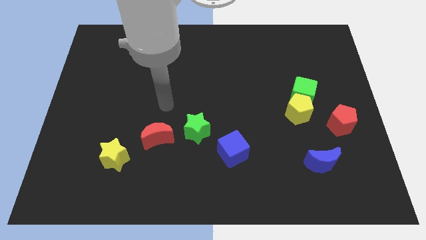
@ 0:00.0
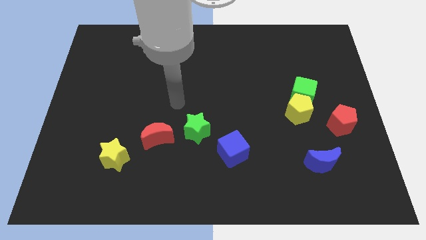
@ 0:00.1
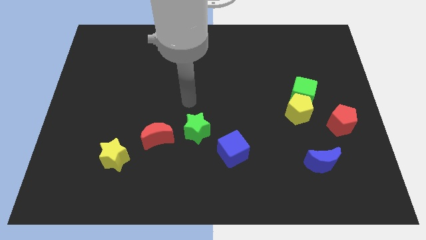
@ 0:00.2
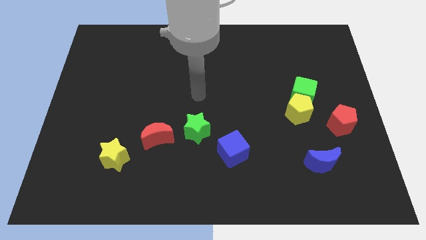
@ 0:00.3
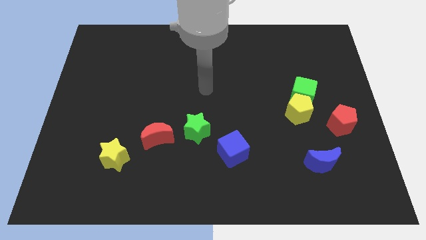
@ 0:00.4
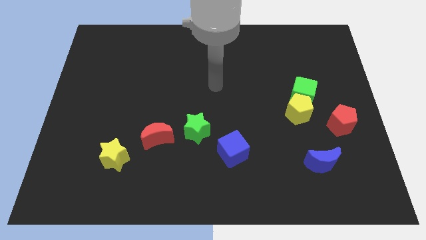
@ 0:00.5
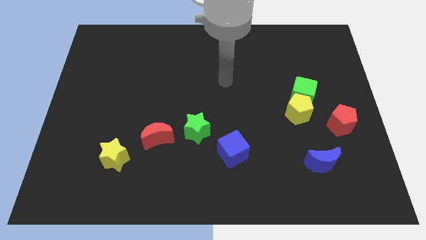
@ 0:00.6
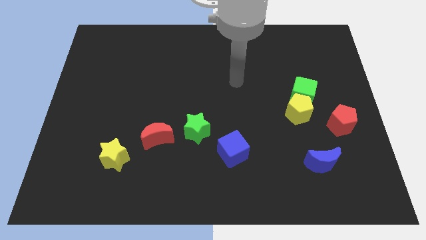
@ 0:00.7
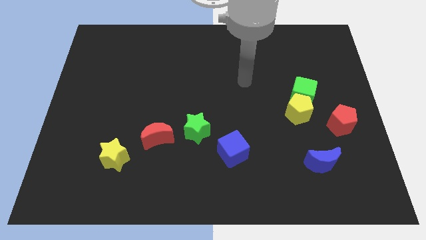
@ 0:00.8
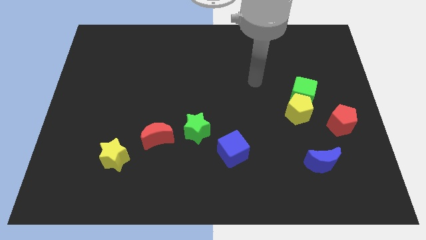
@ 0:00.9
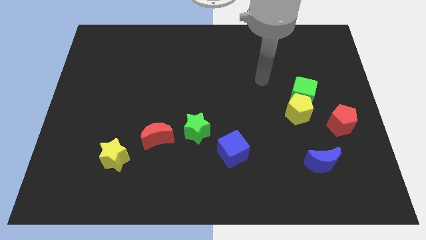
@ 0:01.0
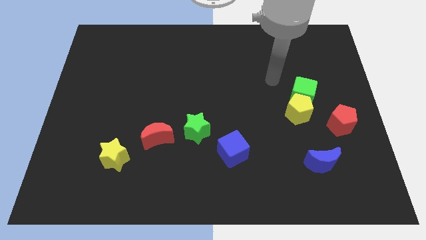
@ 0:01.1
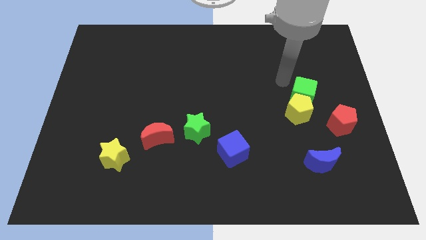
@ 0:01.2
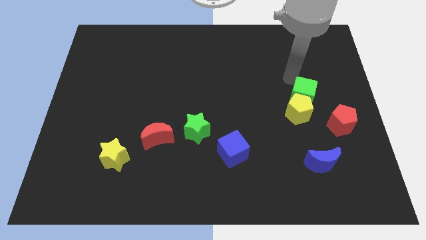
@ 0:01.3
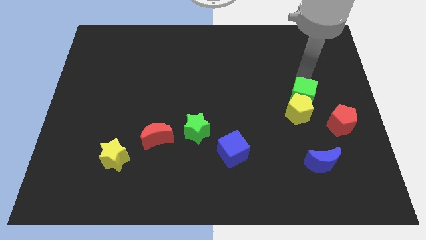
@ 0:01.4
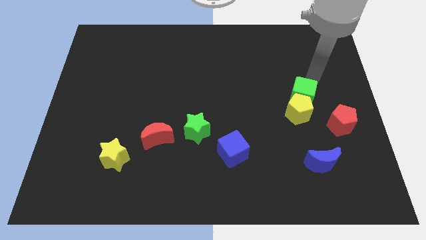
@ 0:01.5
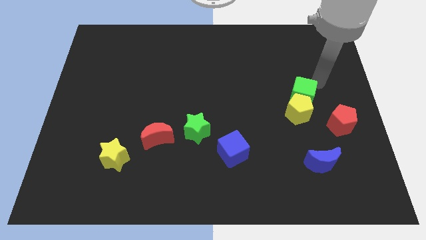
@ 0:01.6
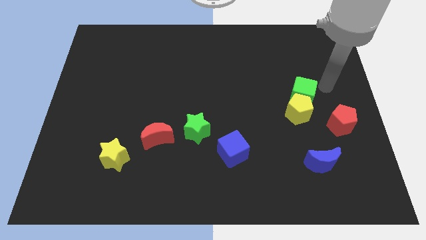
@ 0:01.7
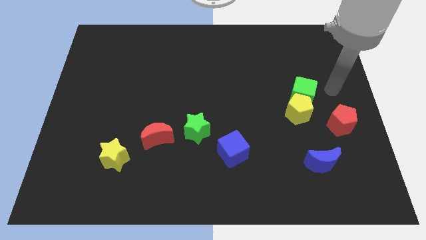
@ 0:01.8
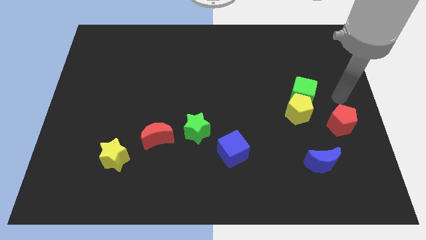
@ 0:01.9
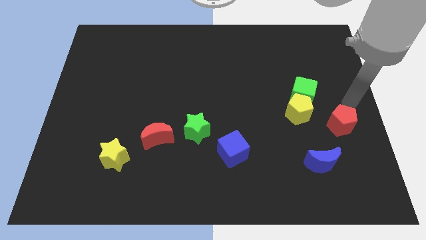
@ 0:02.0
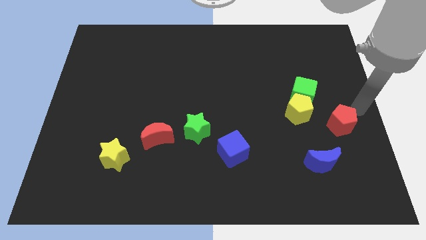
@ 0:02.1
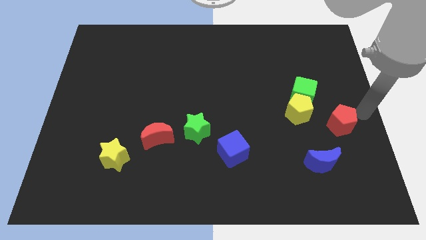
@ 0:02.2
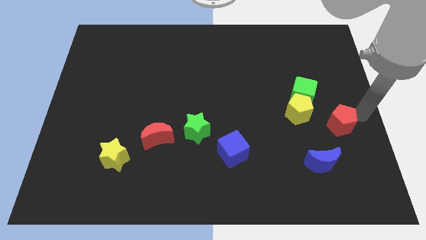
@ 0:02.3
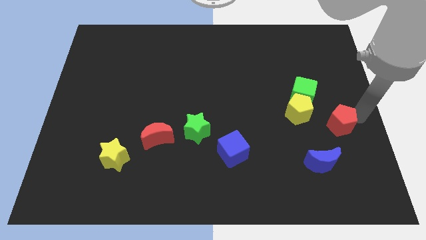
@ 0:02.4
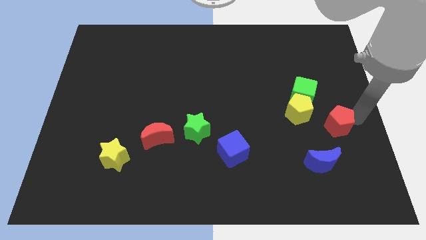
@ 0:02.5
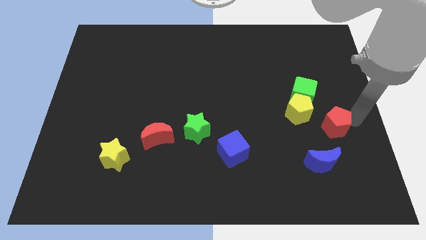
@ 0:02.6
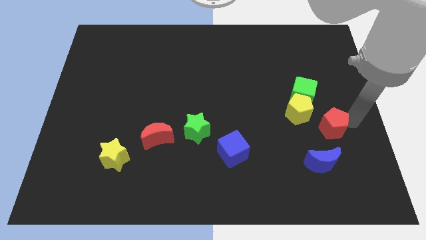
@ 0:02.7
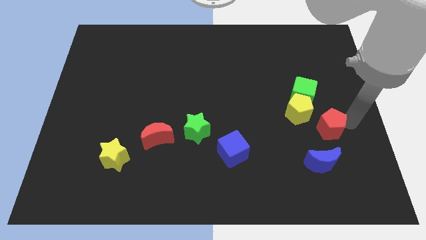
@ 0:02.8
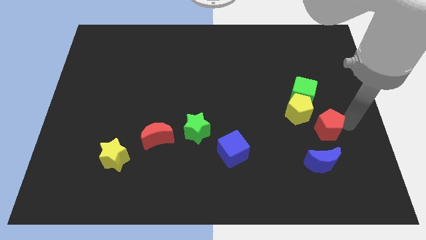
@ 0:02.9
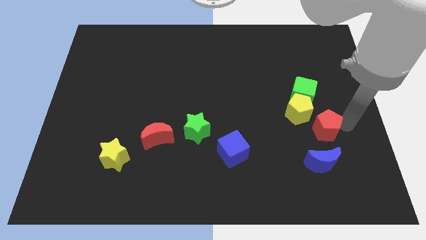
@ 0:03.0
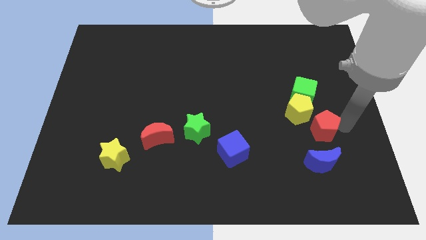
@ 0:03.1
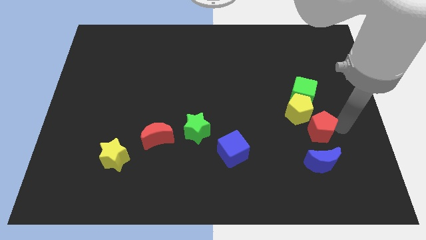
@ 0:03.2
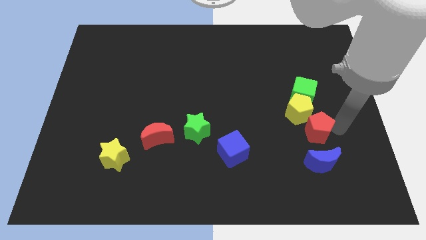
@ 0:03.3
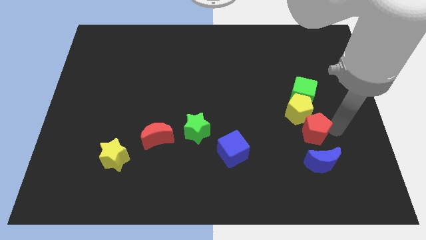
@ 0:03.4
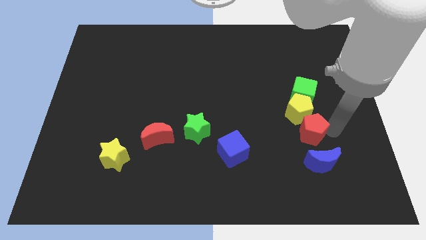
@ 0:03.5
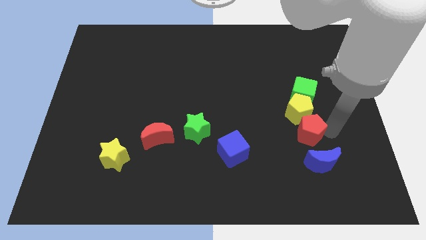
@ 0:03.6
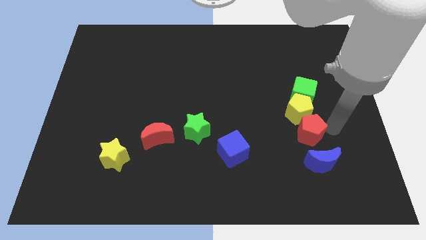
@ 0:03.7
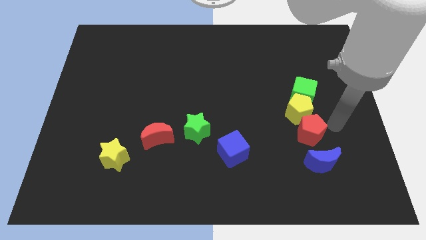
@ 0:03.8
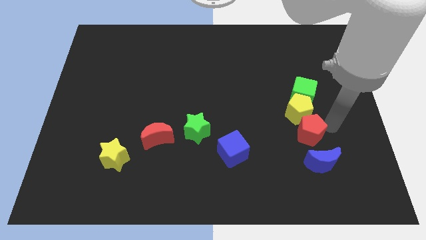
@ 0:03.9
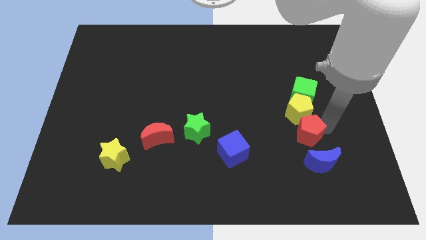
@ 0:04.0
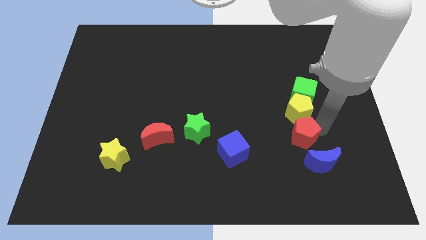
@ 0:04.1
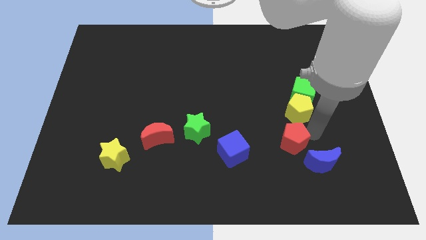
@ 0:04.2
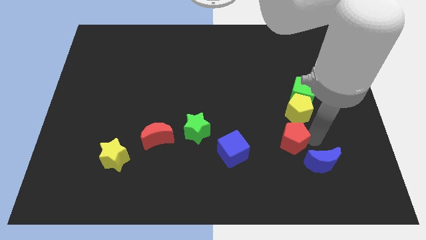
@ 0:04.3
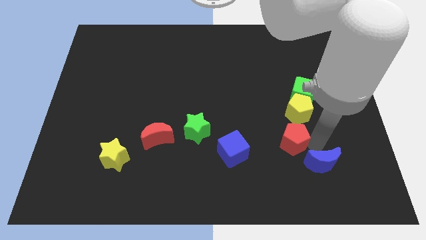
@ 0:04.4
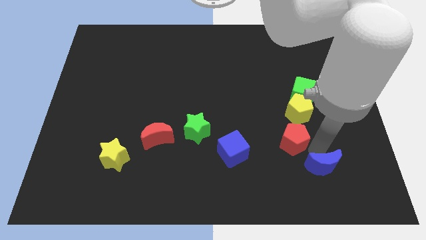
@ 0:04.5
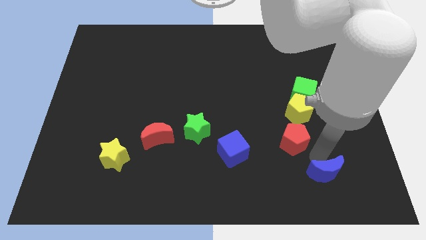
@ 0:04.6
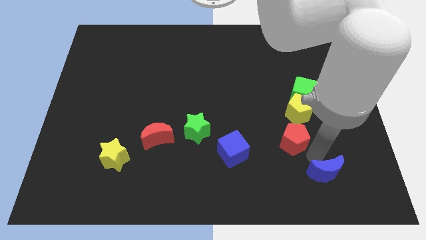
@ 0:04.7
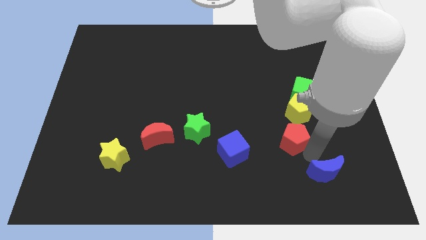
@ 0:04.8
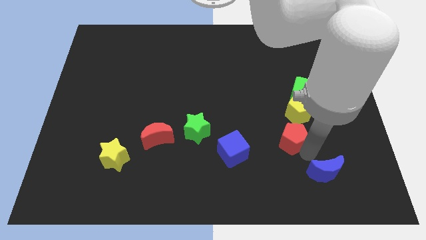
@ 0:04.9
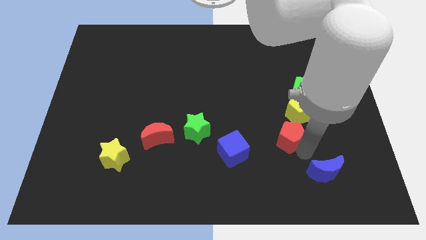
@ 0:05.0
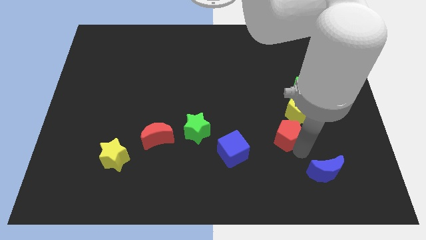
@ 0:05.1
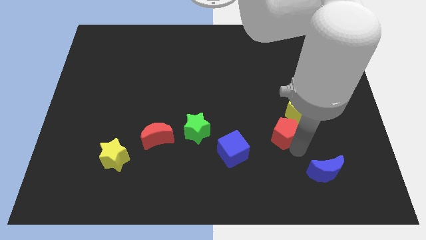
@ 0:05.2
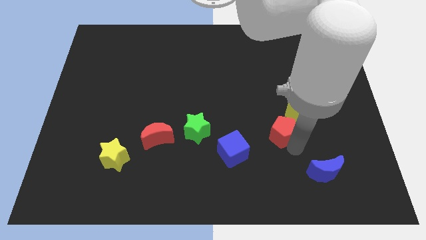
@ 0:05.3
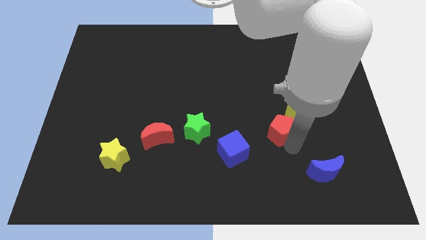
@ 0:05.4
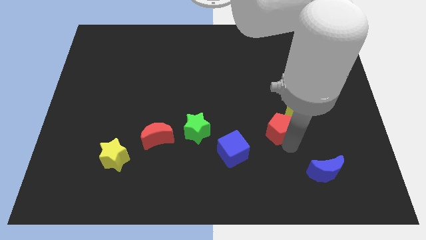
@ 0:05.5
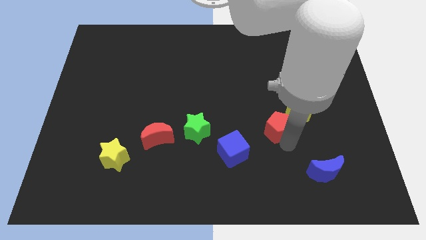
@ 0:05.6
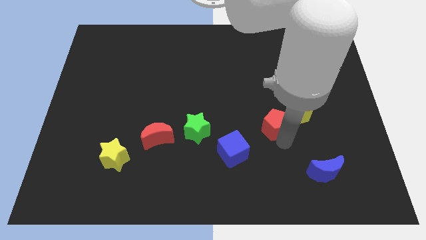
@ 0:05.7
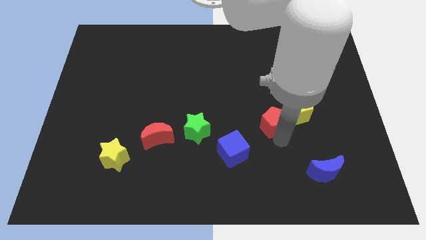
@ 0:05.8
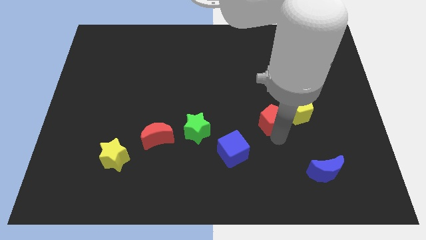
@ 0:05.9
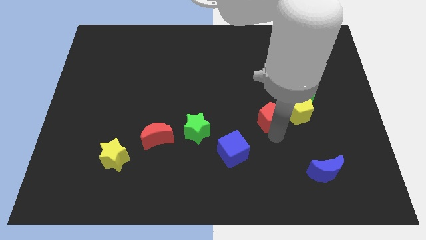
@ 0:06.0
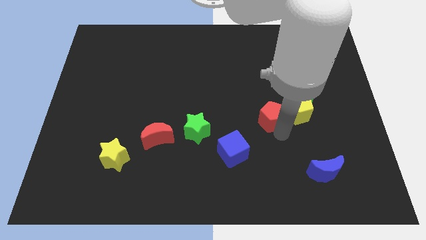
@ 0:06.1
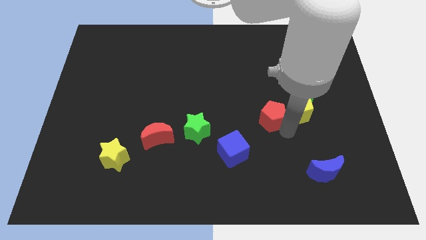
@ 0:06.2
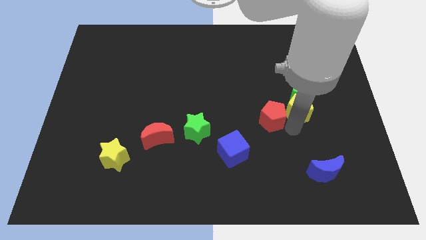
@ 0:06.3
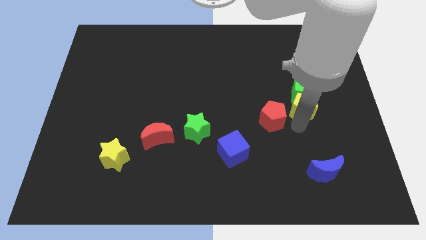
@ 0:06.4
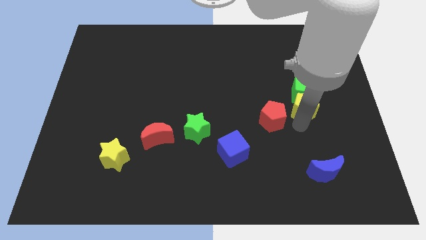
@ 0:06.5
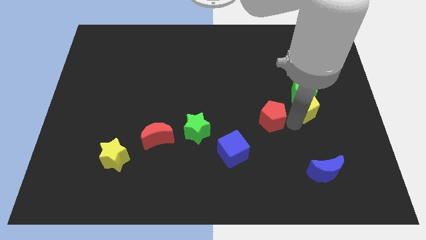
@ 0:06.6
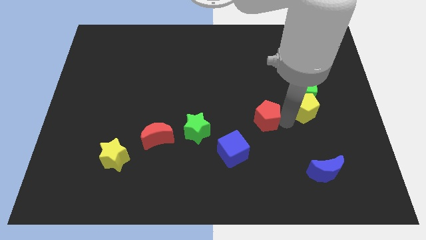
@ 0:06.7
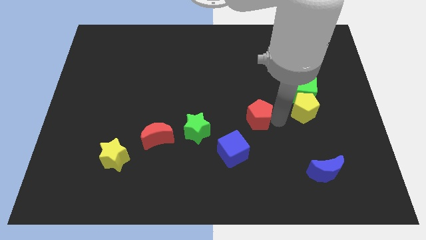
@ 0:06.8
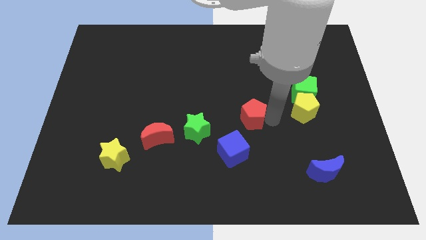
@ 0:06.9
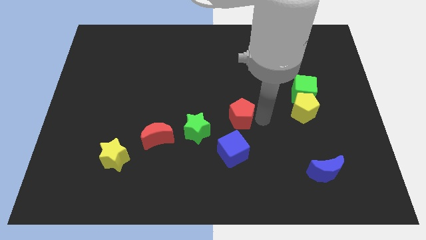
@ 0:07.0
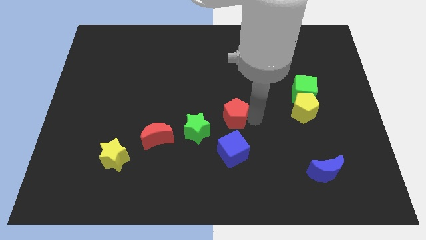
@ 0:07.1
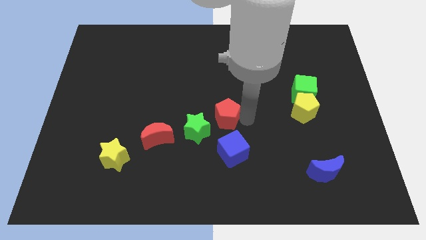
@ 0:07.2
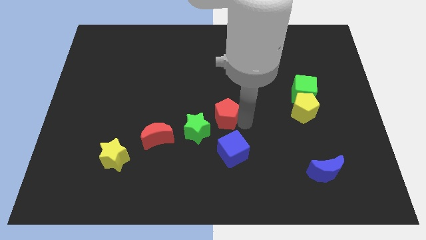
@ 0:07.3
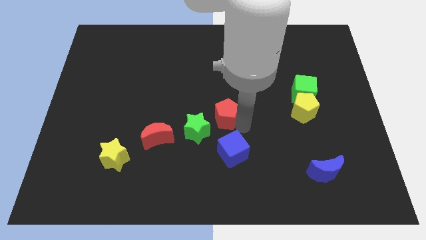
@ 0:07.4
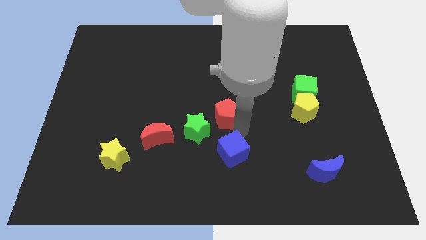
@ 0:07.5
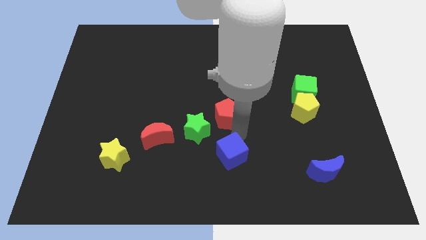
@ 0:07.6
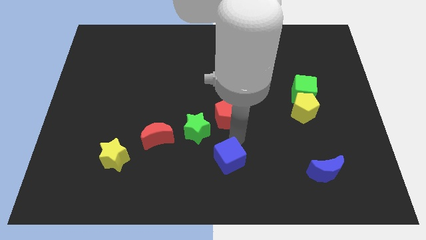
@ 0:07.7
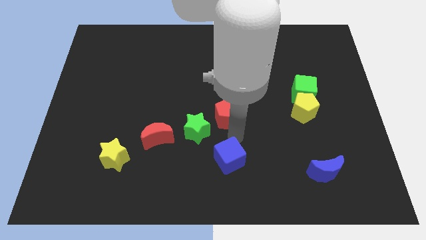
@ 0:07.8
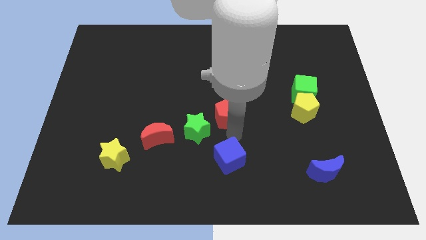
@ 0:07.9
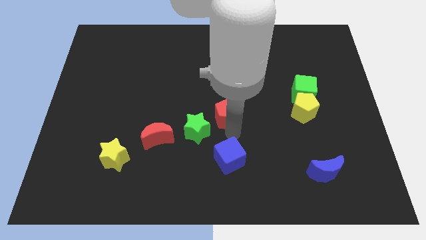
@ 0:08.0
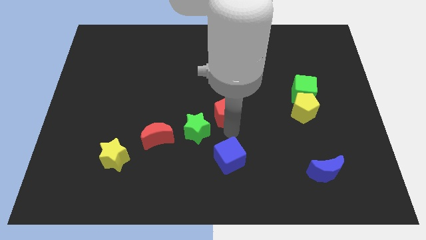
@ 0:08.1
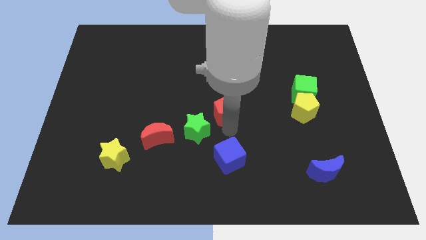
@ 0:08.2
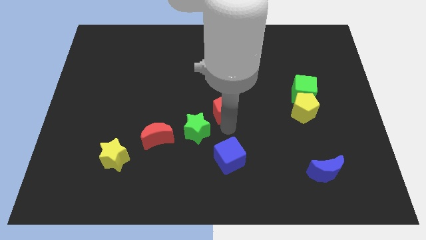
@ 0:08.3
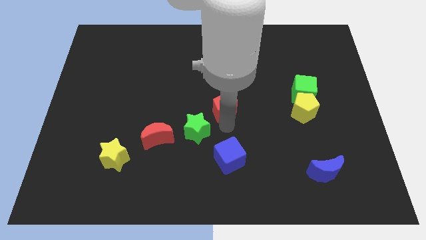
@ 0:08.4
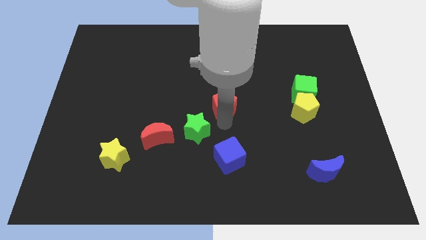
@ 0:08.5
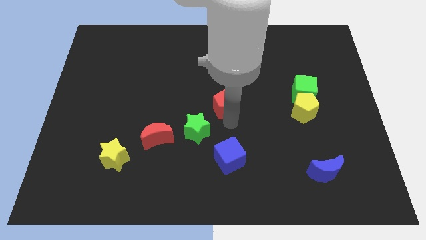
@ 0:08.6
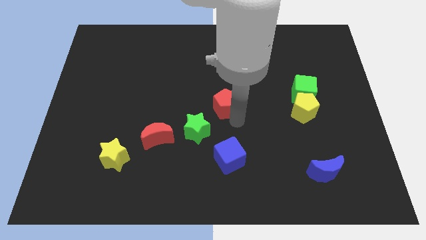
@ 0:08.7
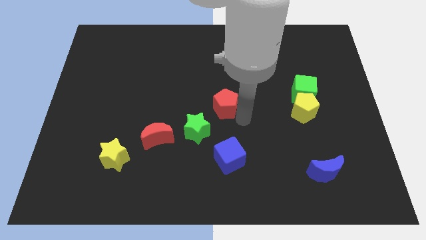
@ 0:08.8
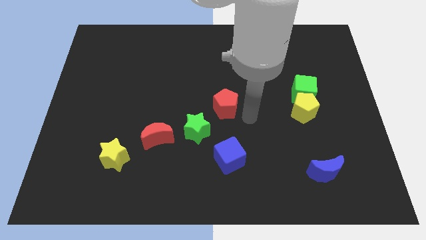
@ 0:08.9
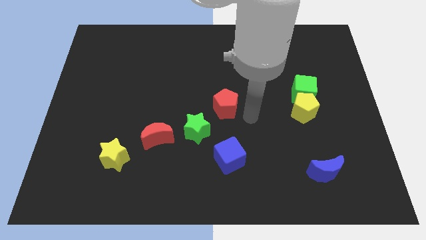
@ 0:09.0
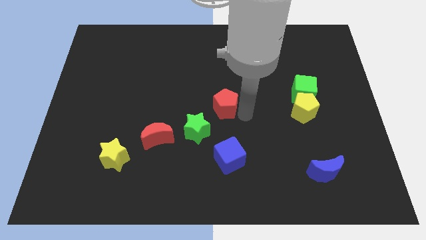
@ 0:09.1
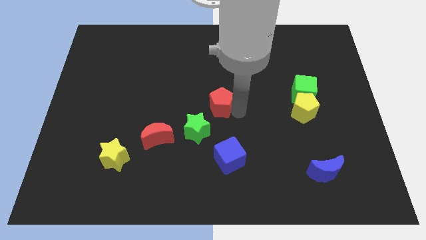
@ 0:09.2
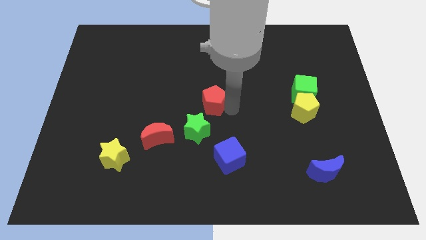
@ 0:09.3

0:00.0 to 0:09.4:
move the red pentagon to the top side of the green star
